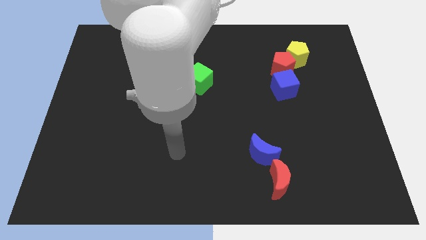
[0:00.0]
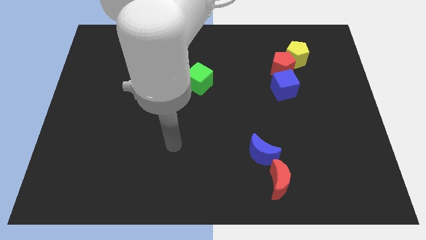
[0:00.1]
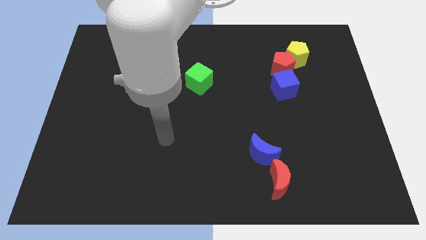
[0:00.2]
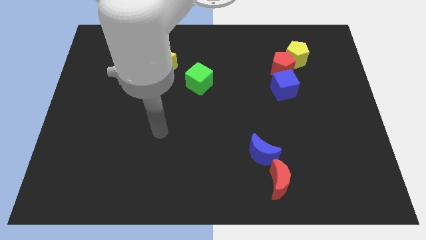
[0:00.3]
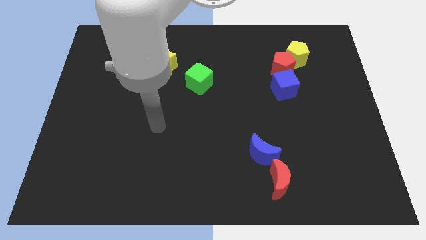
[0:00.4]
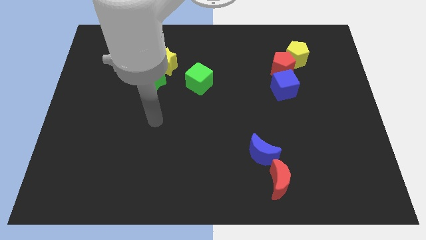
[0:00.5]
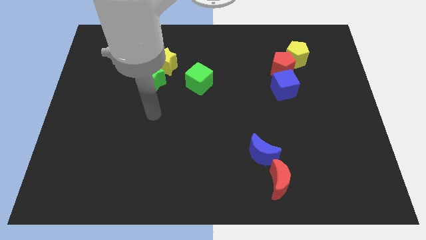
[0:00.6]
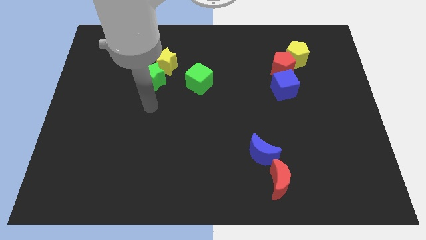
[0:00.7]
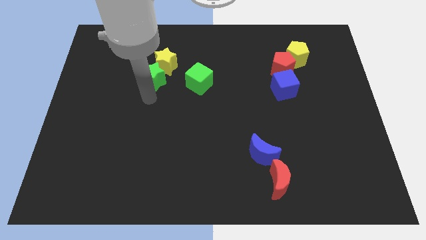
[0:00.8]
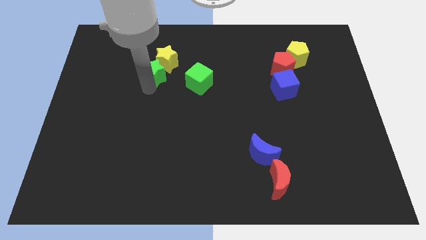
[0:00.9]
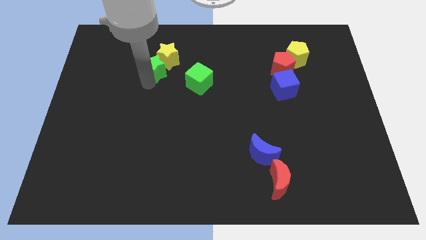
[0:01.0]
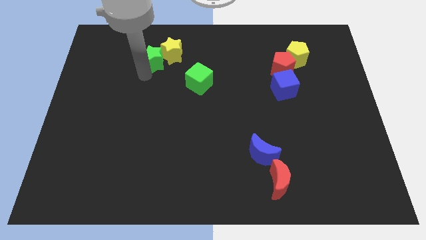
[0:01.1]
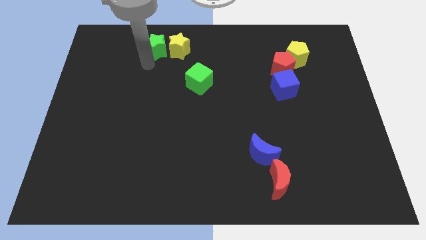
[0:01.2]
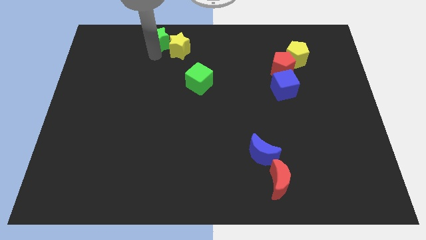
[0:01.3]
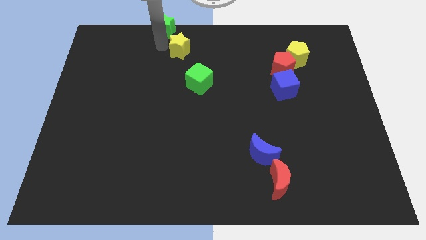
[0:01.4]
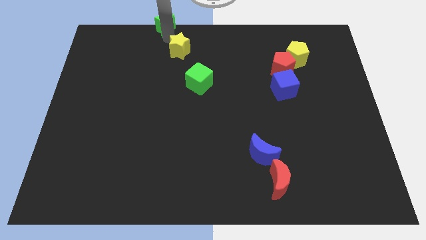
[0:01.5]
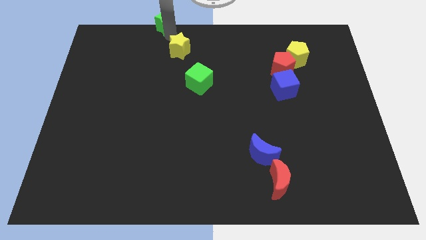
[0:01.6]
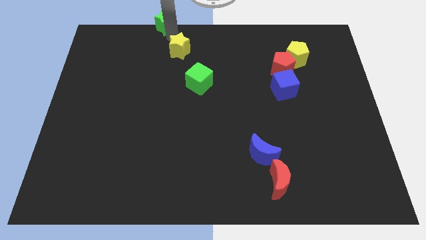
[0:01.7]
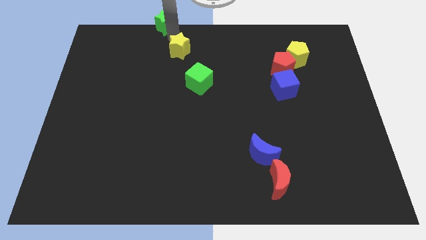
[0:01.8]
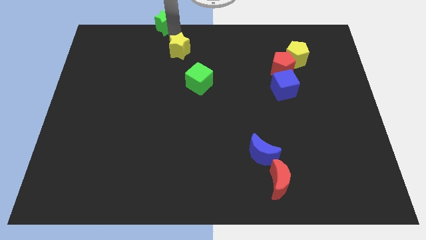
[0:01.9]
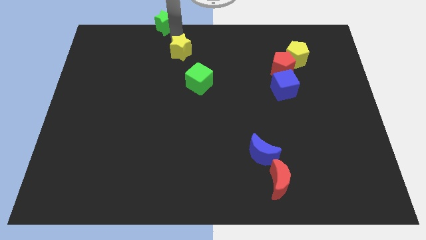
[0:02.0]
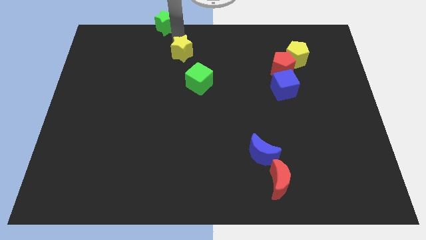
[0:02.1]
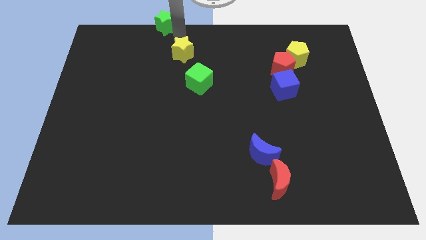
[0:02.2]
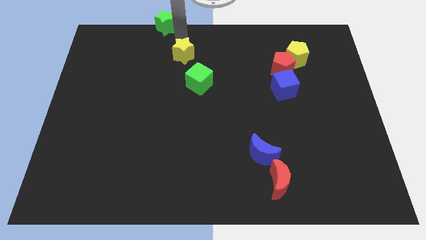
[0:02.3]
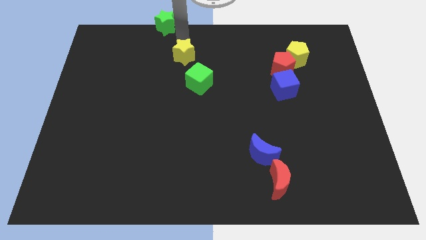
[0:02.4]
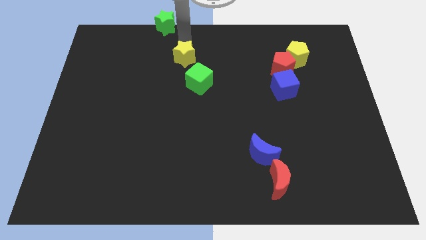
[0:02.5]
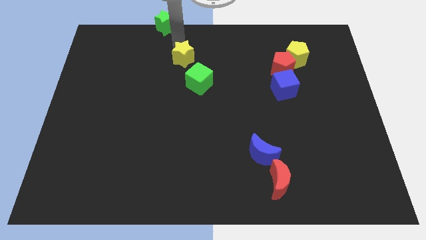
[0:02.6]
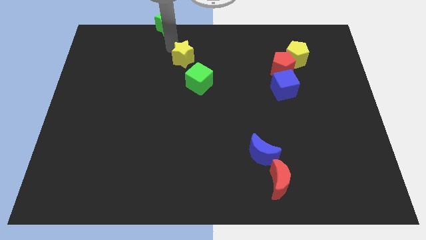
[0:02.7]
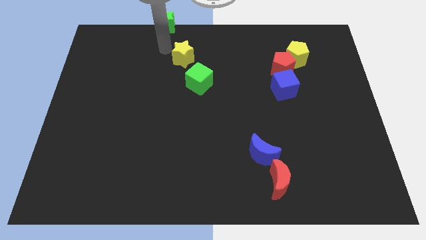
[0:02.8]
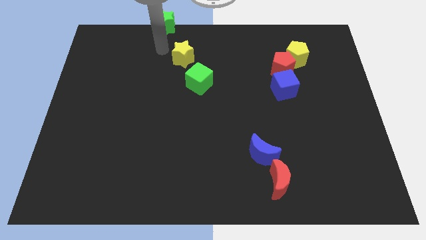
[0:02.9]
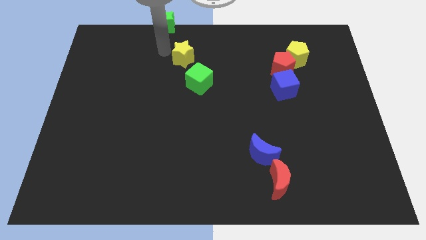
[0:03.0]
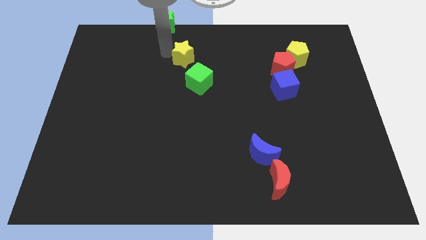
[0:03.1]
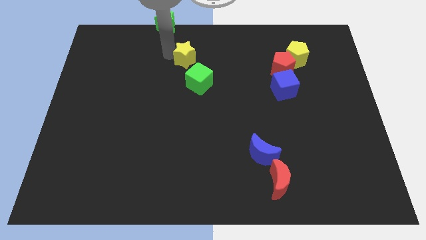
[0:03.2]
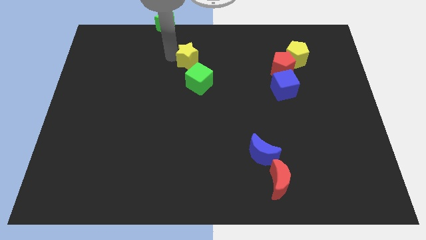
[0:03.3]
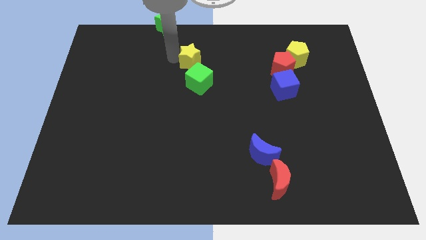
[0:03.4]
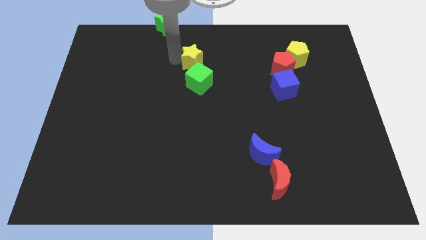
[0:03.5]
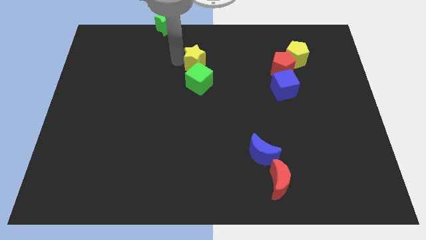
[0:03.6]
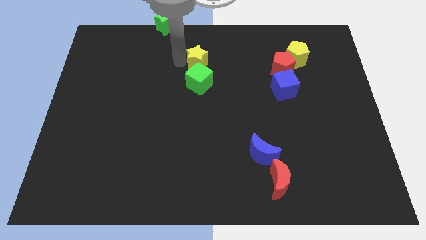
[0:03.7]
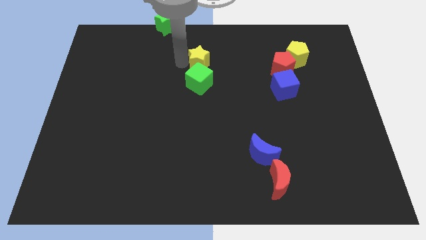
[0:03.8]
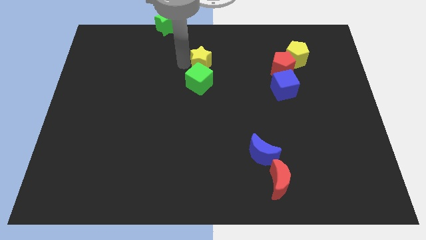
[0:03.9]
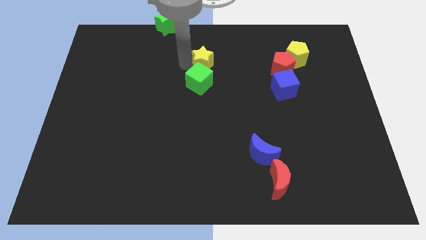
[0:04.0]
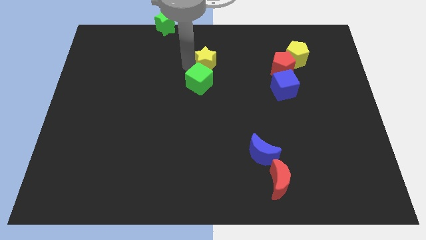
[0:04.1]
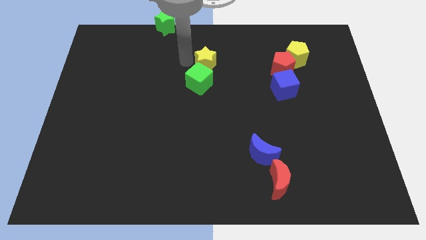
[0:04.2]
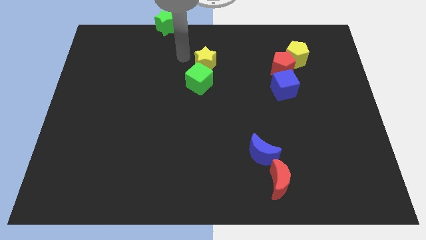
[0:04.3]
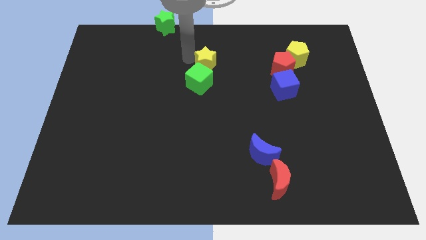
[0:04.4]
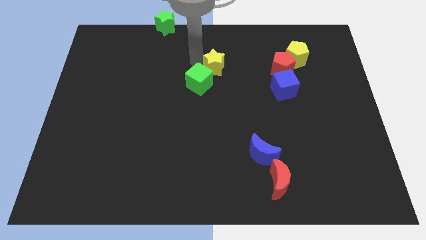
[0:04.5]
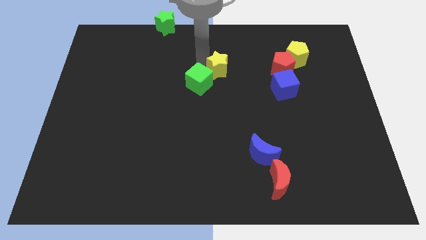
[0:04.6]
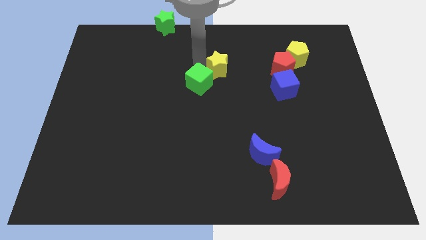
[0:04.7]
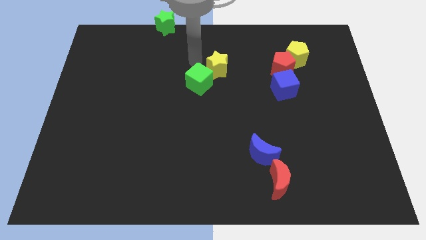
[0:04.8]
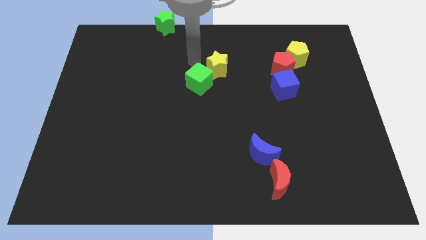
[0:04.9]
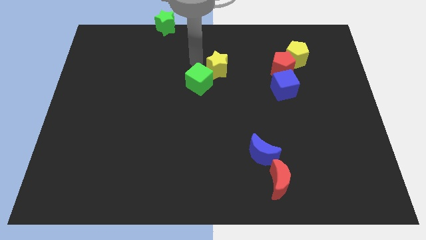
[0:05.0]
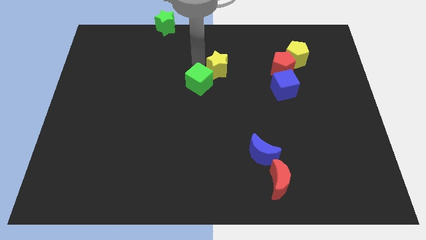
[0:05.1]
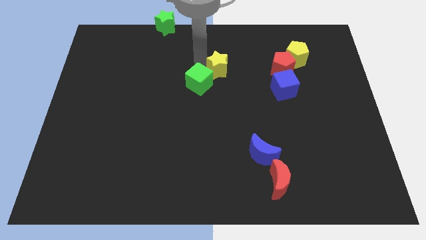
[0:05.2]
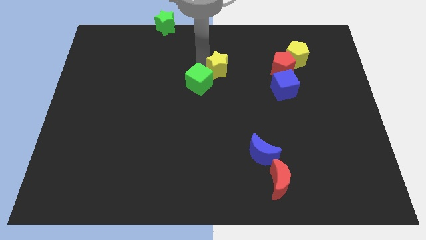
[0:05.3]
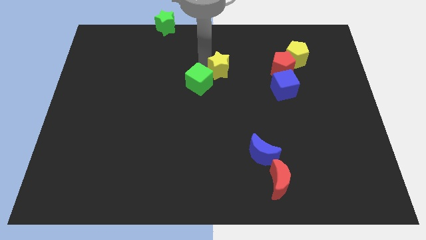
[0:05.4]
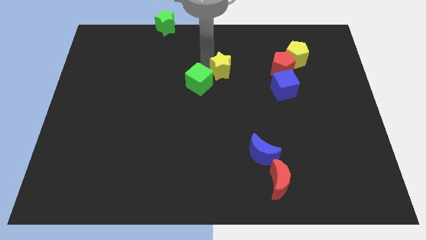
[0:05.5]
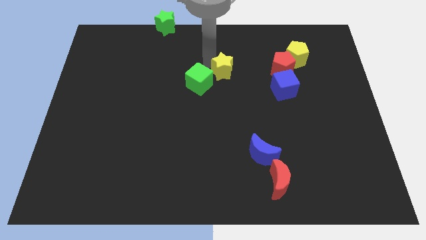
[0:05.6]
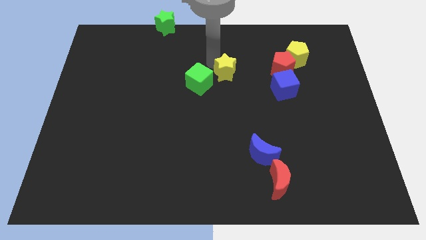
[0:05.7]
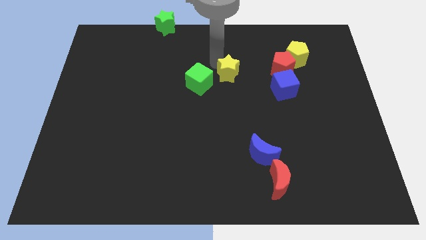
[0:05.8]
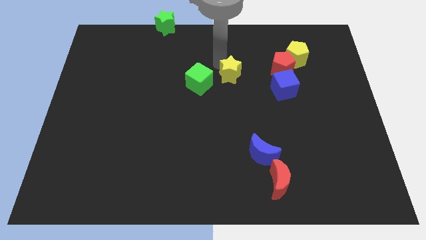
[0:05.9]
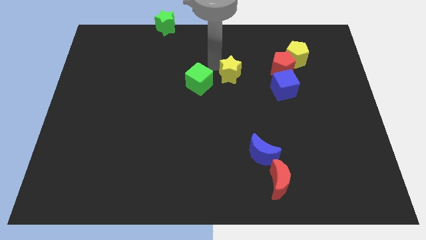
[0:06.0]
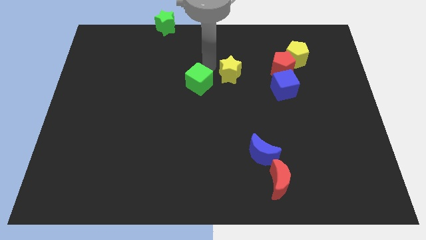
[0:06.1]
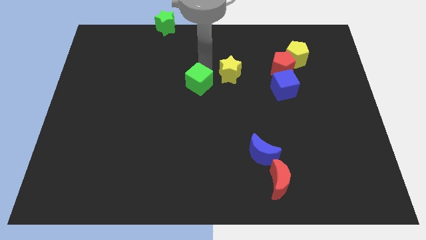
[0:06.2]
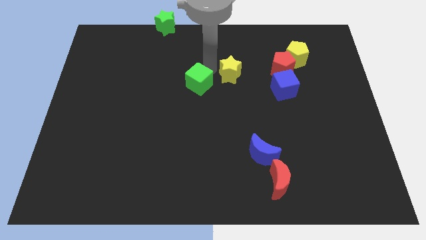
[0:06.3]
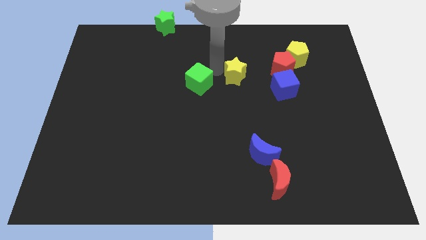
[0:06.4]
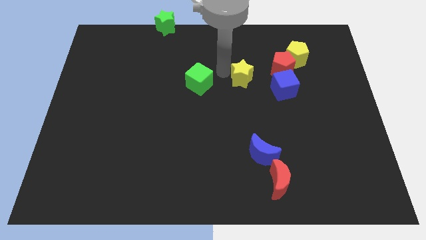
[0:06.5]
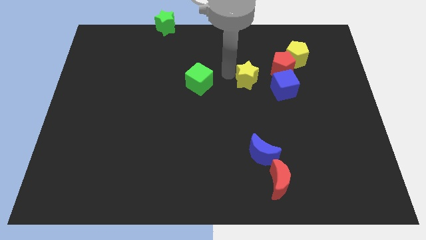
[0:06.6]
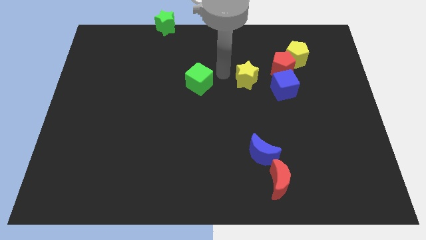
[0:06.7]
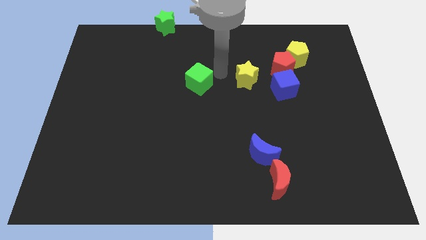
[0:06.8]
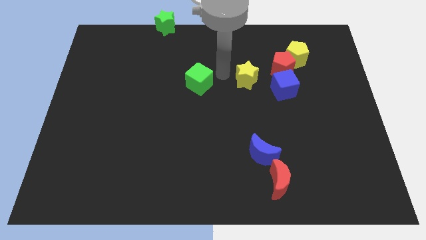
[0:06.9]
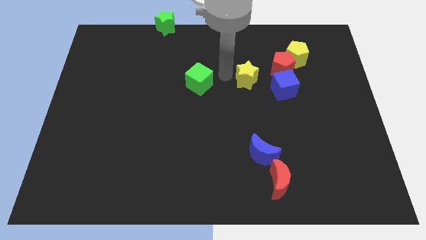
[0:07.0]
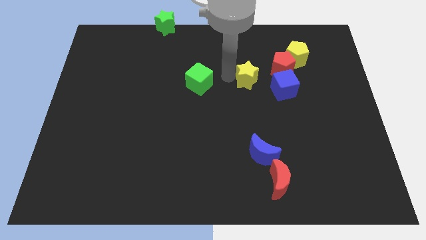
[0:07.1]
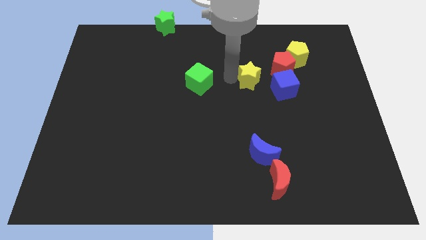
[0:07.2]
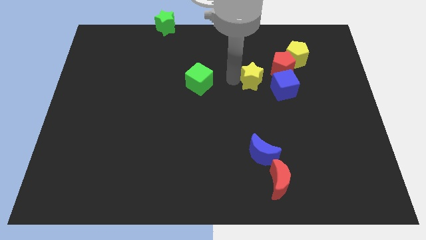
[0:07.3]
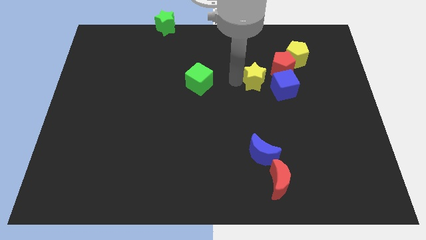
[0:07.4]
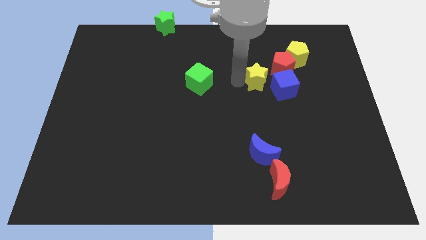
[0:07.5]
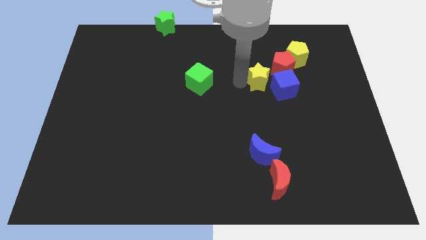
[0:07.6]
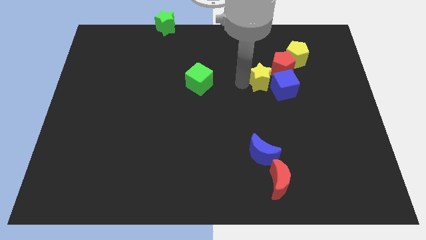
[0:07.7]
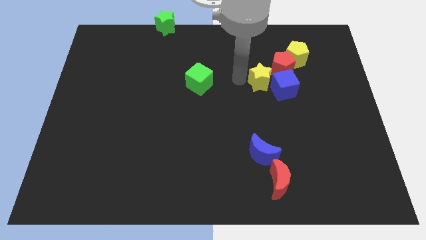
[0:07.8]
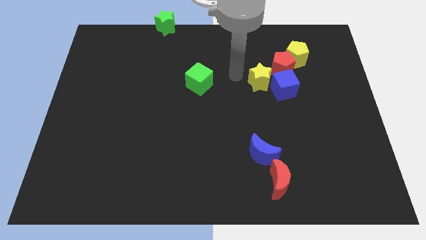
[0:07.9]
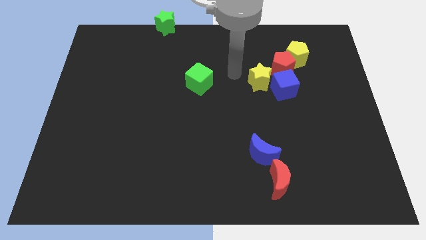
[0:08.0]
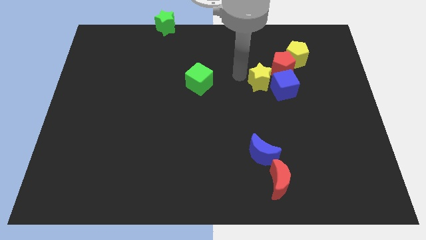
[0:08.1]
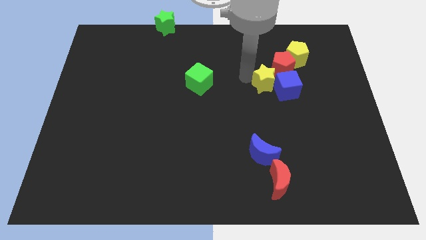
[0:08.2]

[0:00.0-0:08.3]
move the yellow star next to the blue cube
